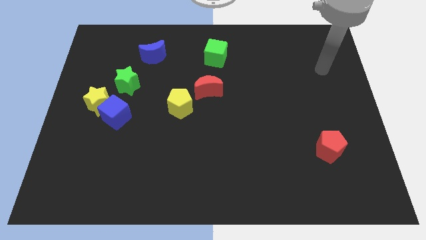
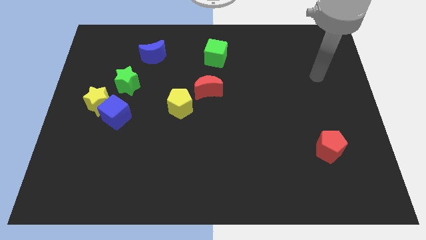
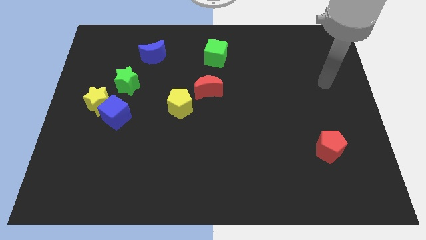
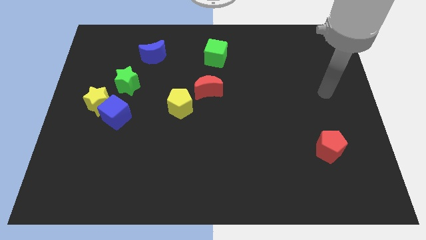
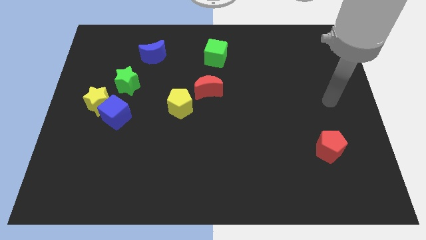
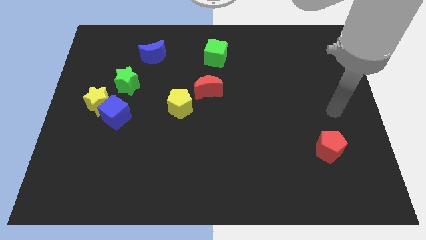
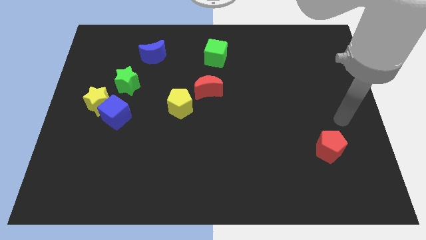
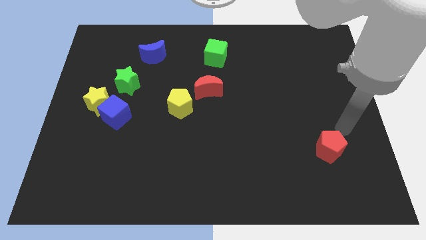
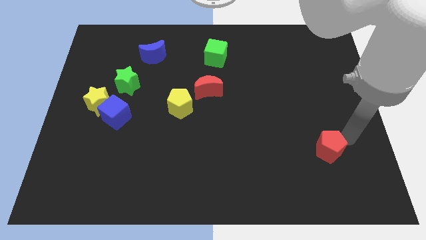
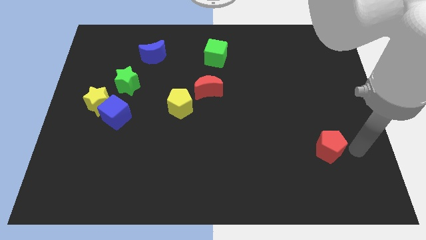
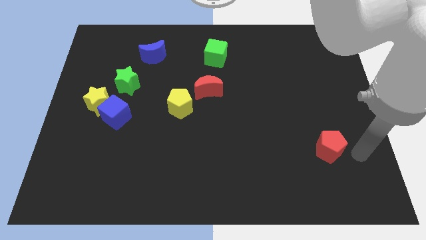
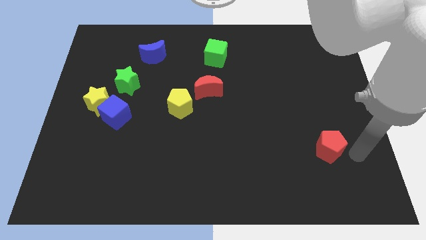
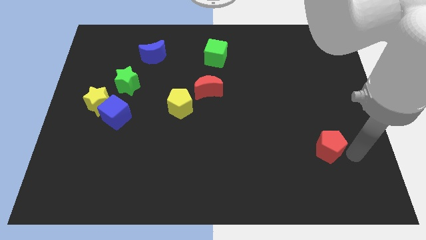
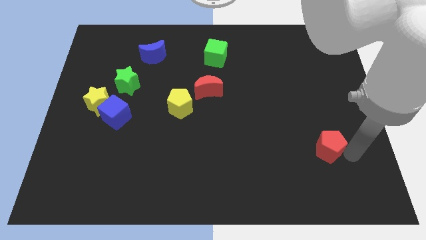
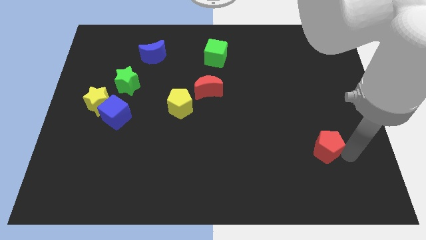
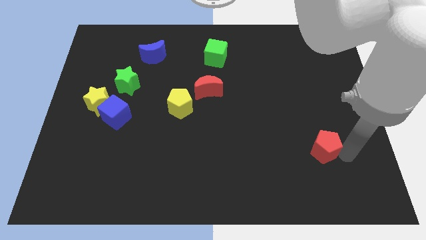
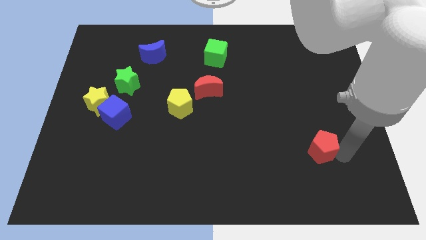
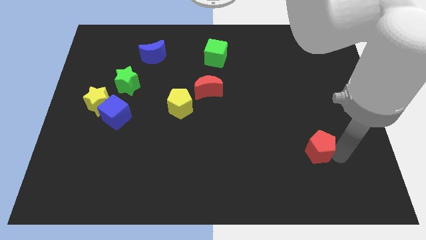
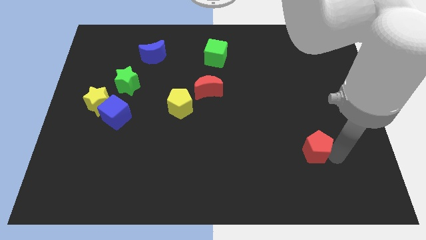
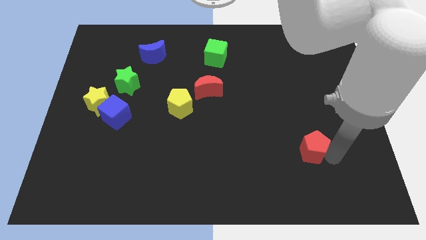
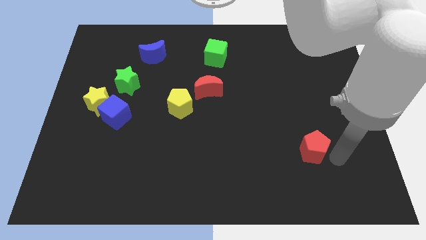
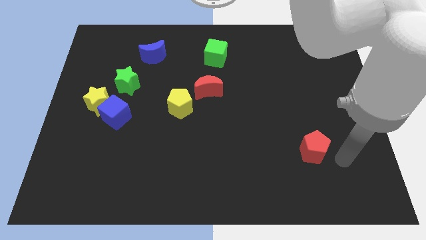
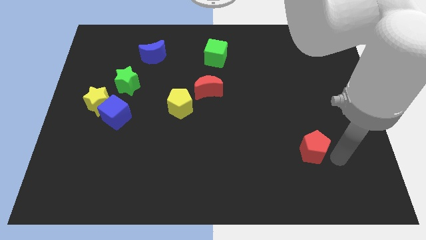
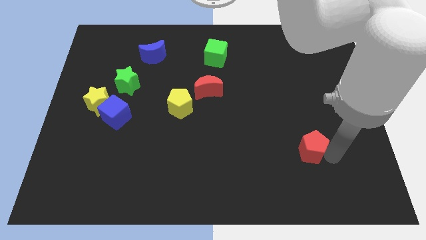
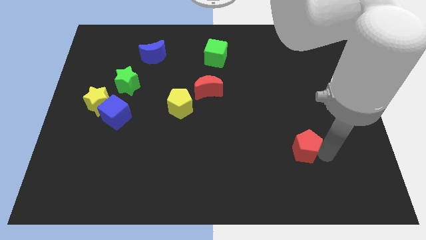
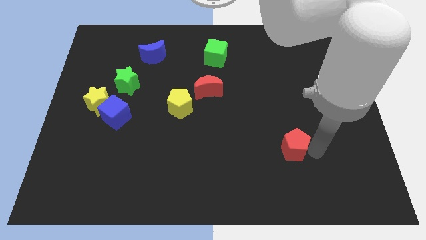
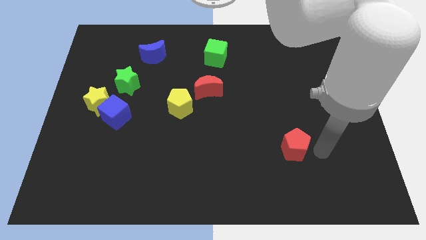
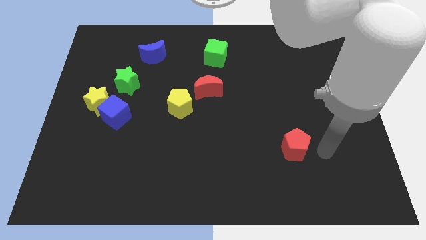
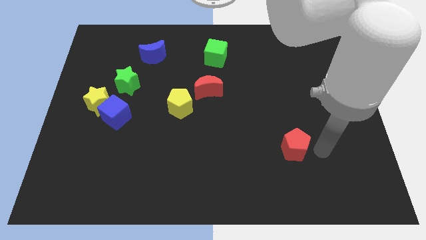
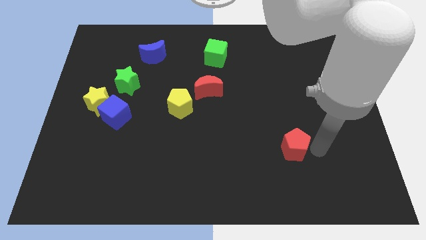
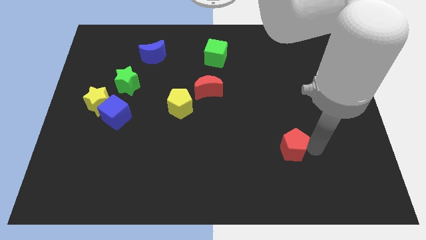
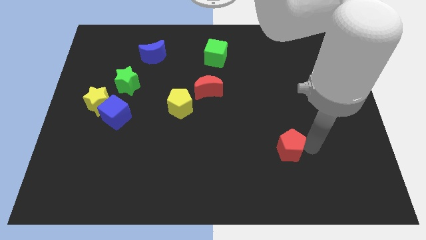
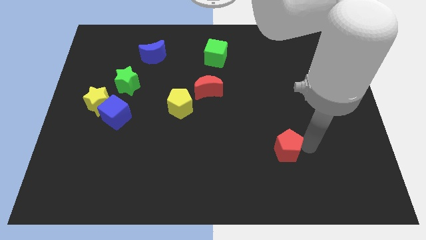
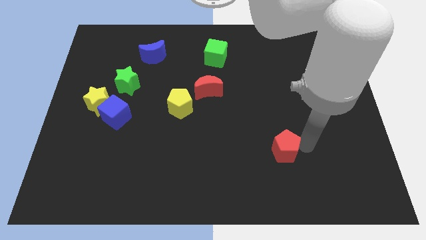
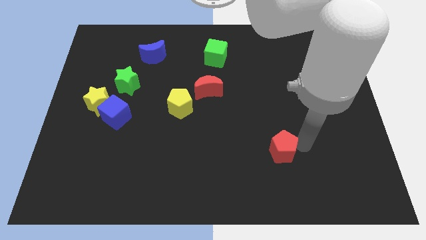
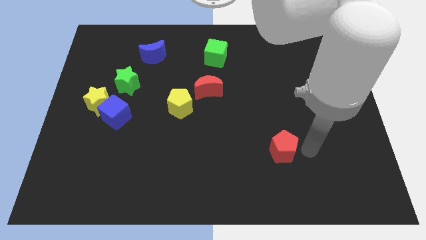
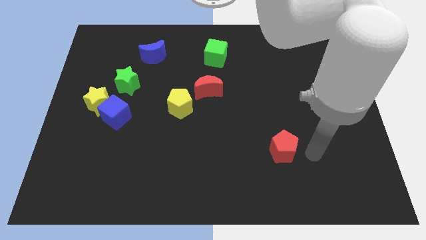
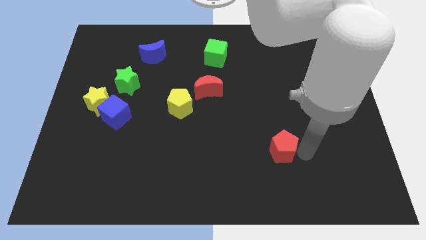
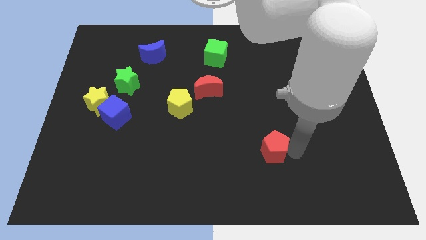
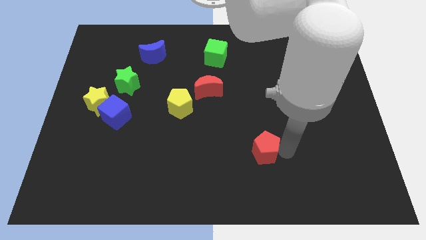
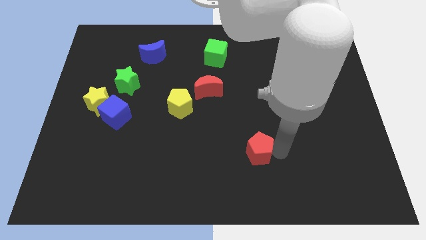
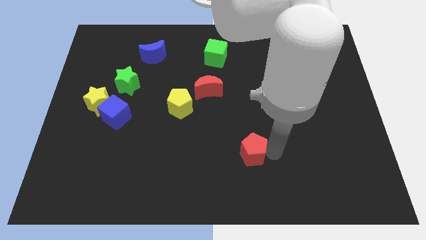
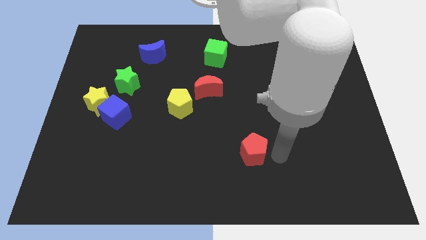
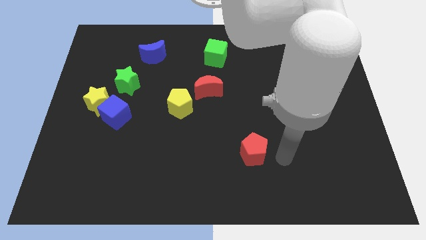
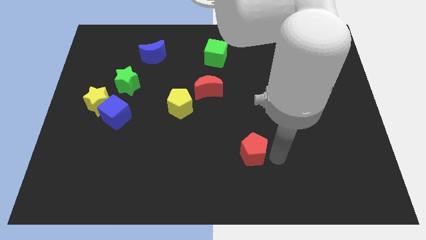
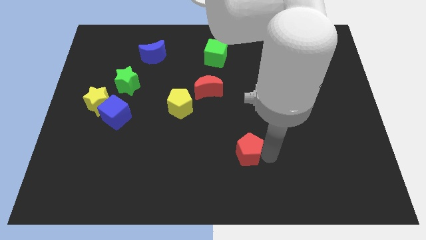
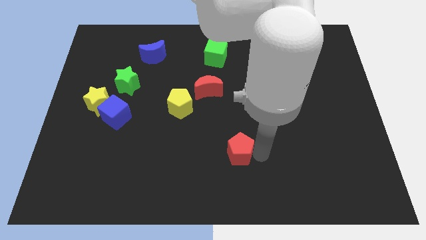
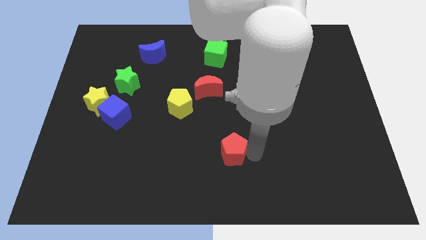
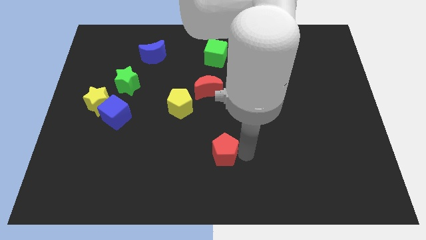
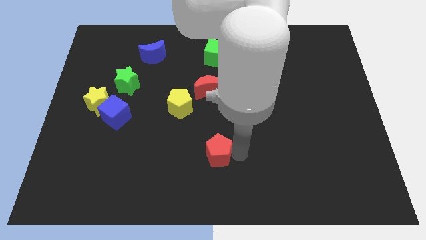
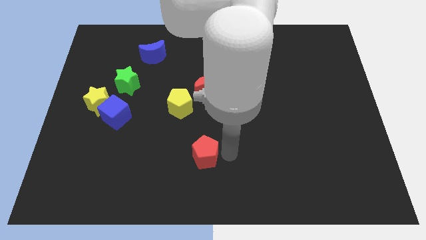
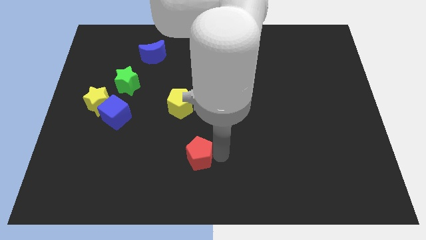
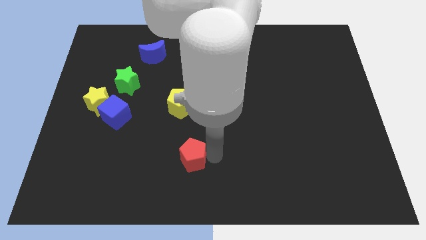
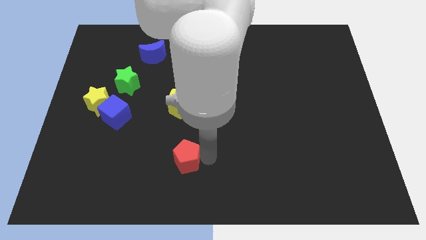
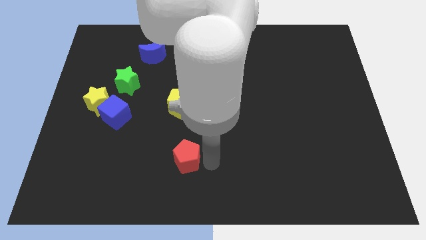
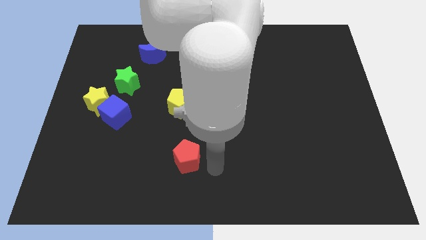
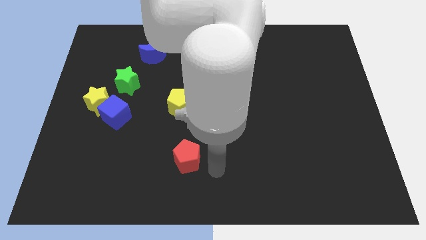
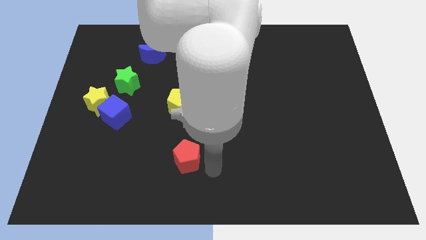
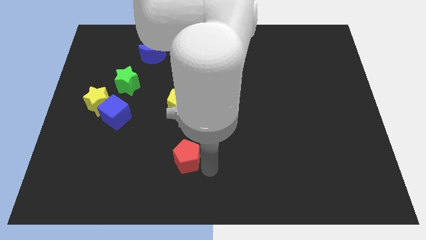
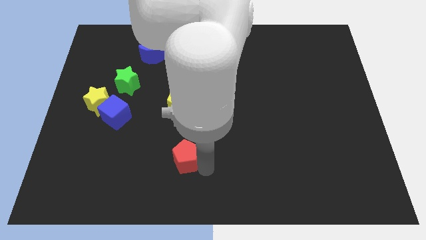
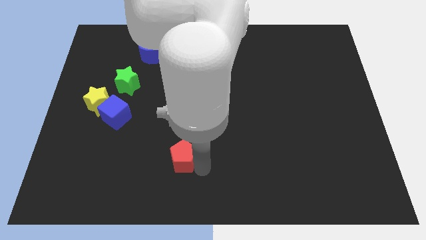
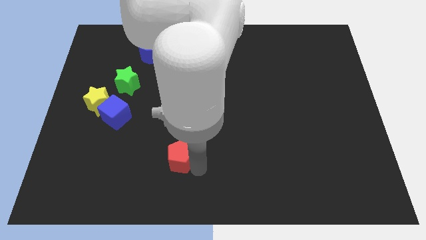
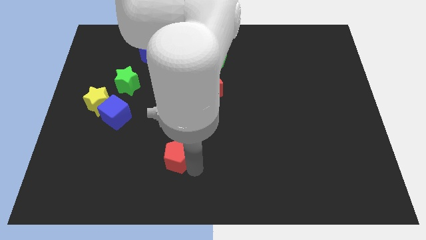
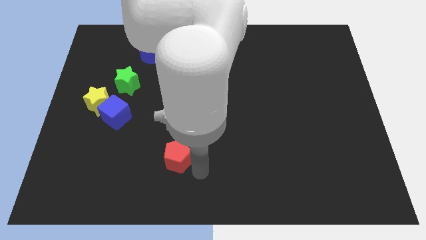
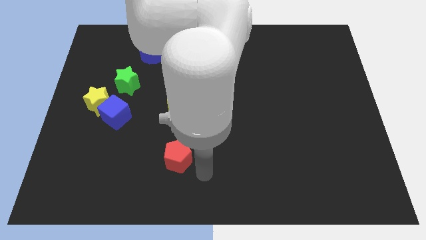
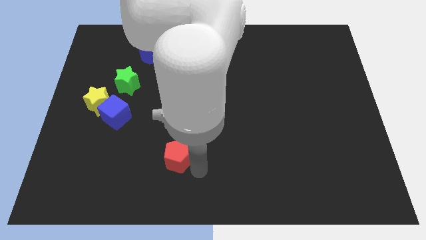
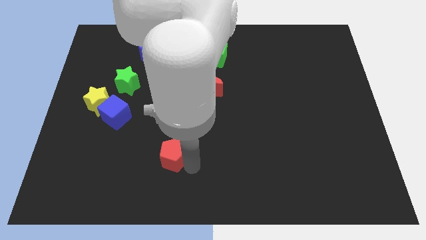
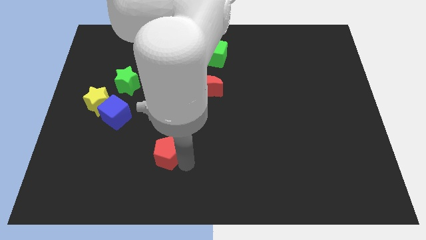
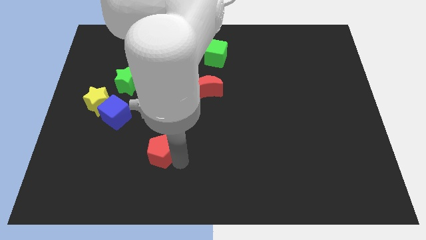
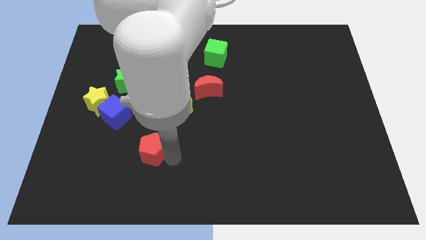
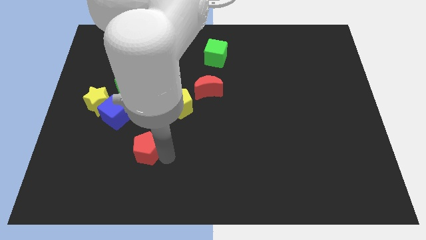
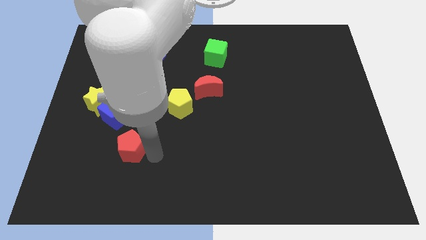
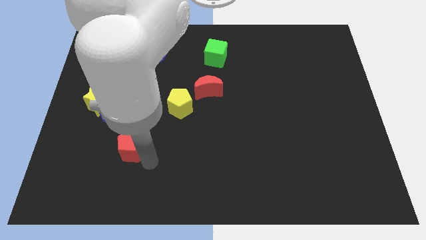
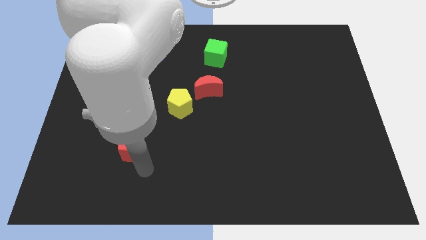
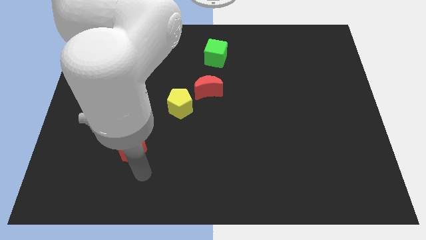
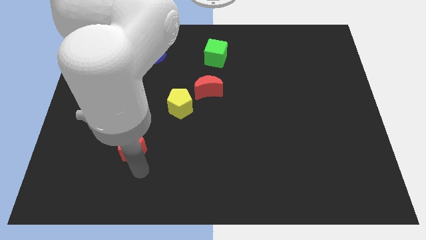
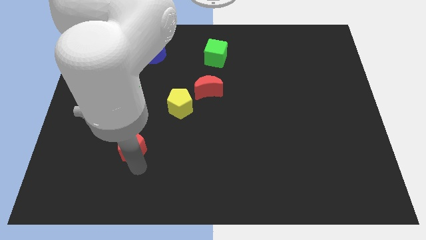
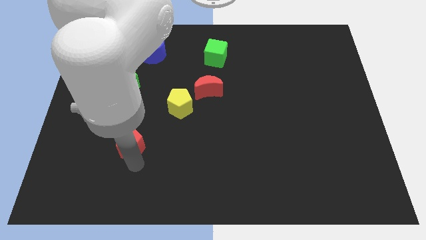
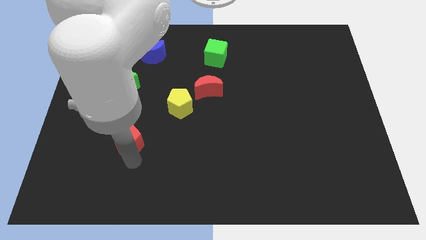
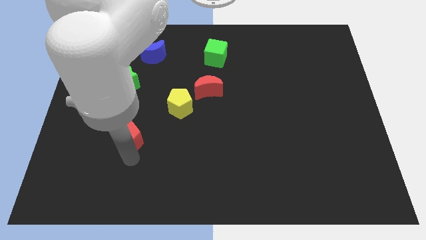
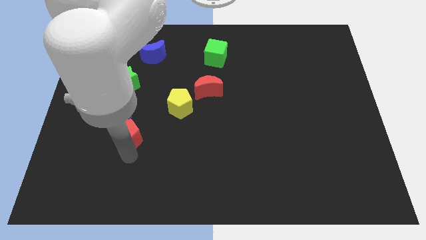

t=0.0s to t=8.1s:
put the red pentagon to the bottom side of the green star
